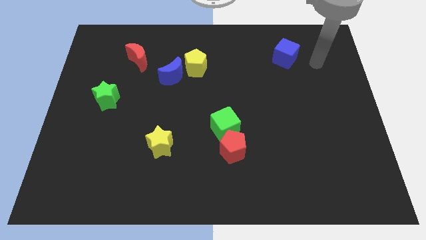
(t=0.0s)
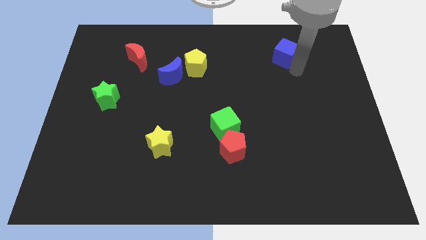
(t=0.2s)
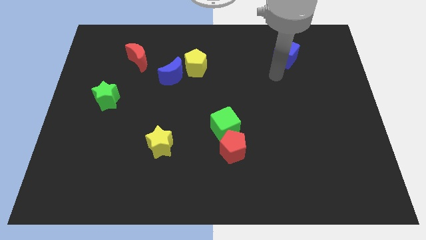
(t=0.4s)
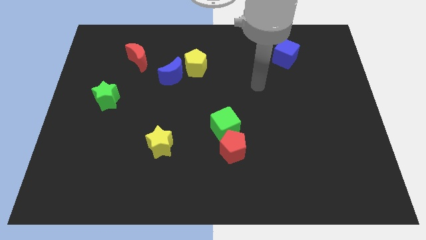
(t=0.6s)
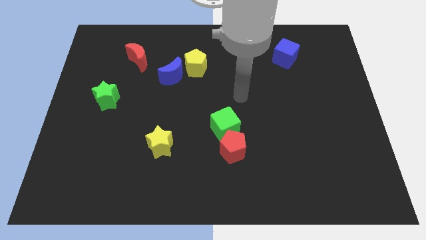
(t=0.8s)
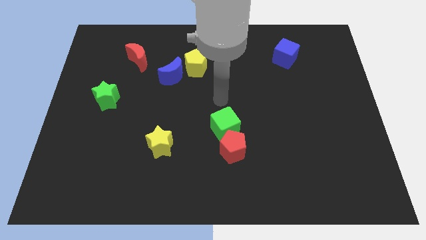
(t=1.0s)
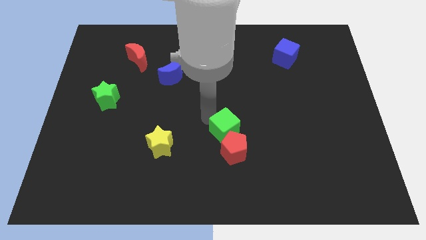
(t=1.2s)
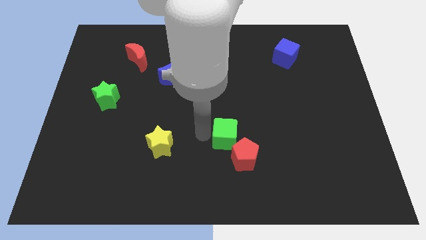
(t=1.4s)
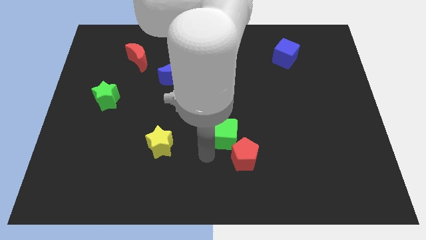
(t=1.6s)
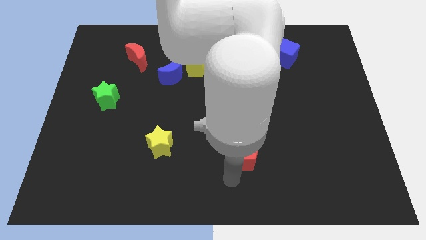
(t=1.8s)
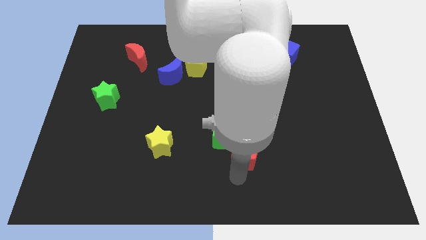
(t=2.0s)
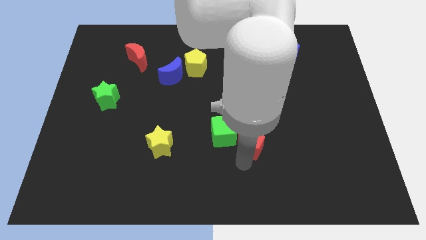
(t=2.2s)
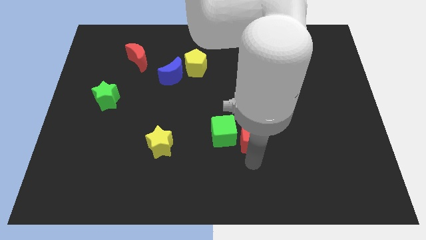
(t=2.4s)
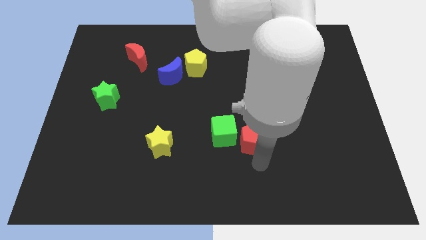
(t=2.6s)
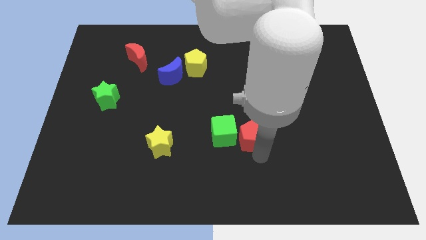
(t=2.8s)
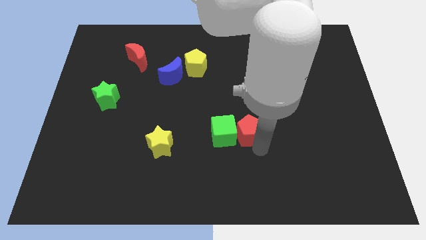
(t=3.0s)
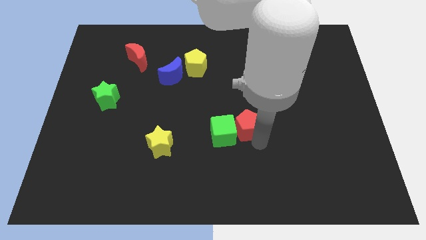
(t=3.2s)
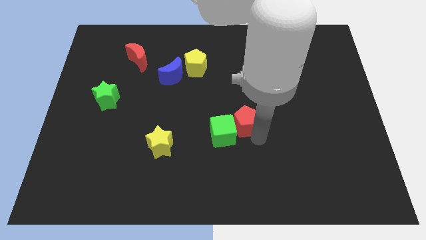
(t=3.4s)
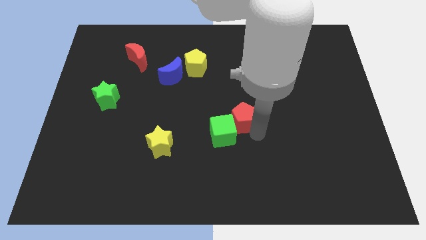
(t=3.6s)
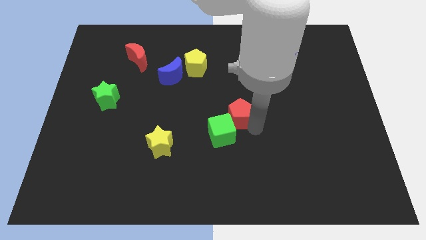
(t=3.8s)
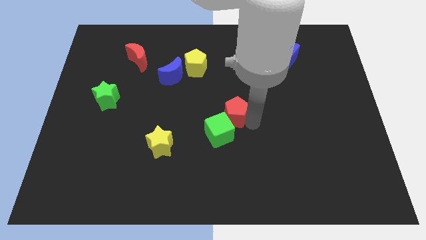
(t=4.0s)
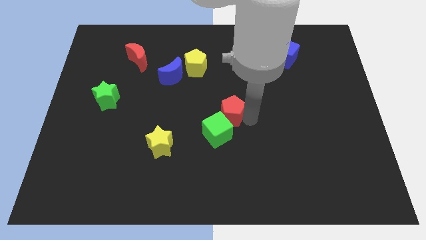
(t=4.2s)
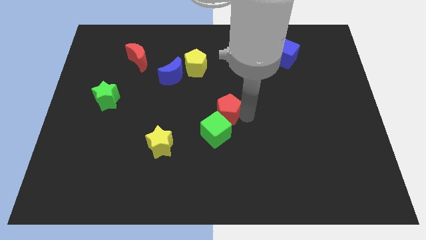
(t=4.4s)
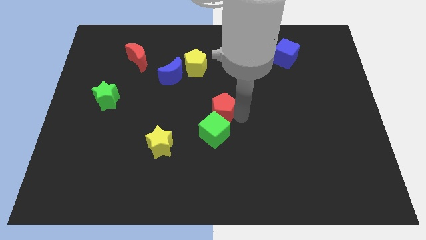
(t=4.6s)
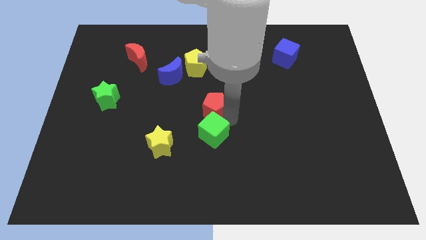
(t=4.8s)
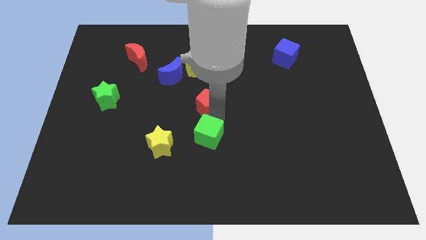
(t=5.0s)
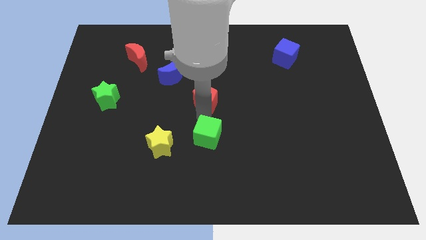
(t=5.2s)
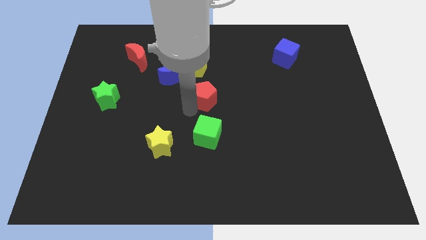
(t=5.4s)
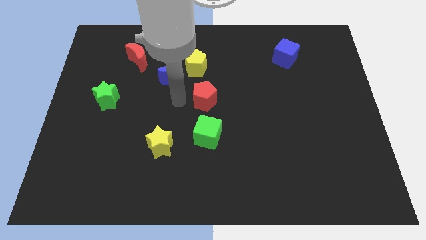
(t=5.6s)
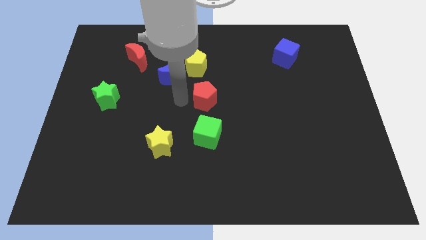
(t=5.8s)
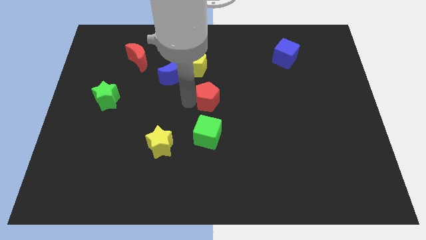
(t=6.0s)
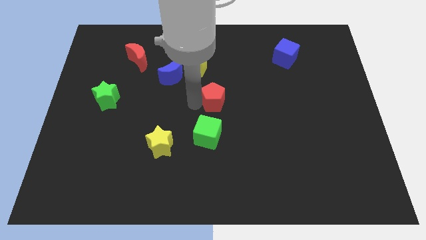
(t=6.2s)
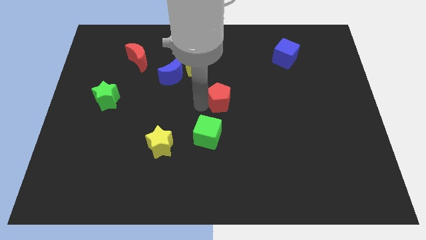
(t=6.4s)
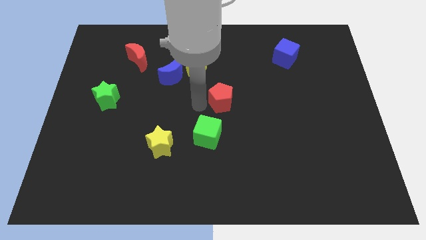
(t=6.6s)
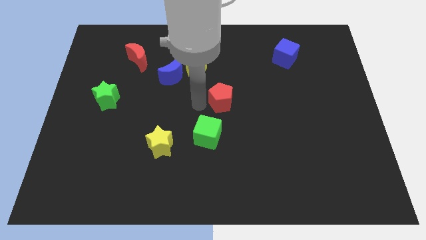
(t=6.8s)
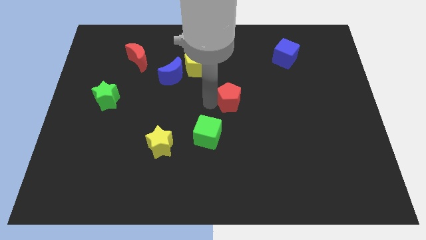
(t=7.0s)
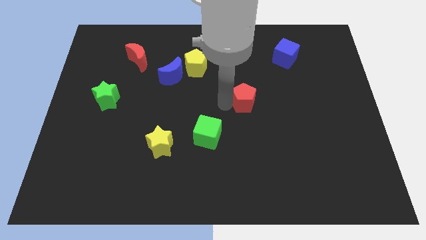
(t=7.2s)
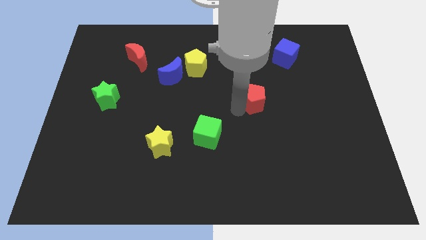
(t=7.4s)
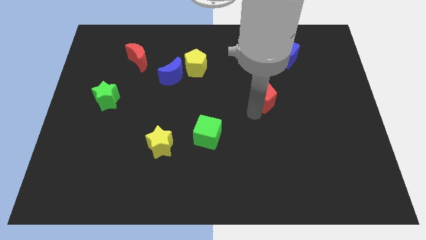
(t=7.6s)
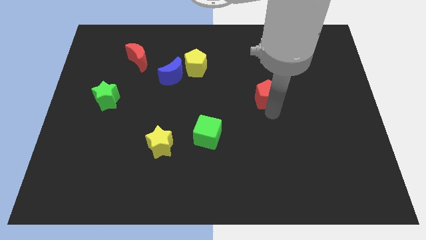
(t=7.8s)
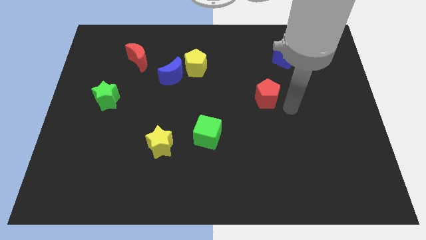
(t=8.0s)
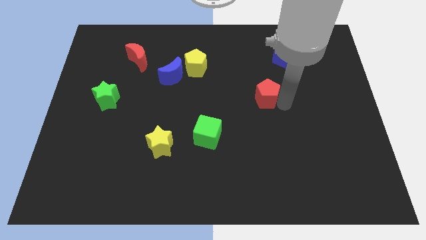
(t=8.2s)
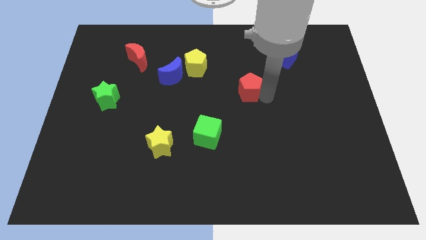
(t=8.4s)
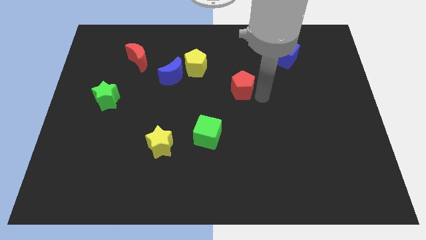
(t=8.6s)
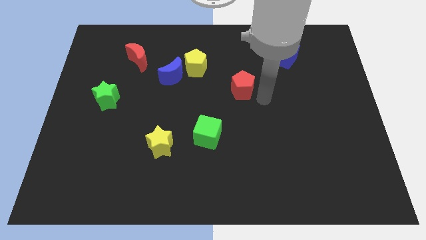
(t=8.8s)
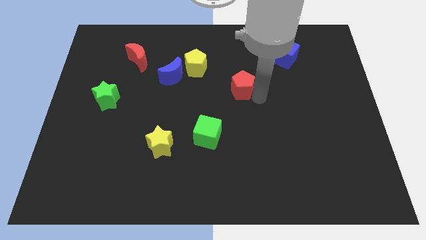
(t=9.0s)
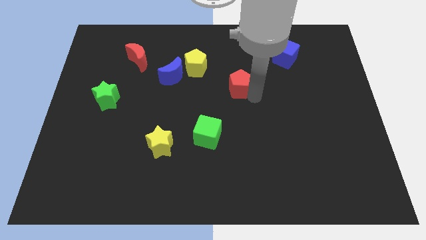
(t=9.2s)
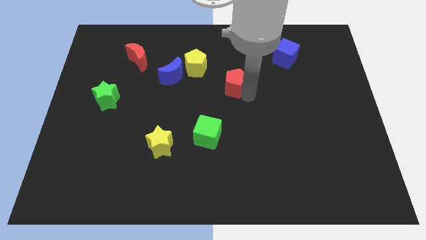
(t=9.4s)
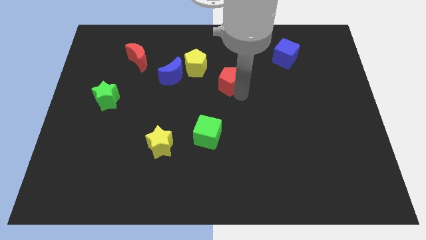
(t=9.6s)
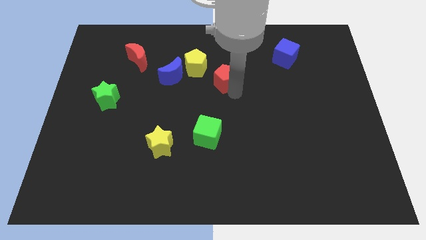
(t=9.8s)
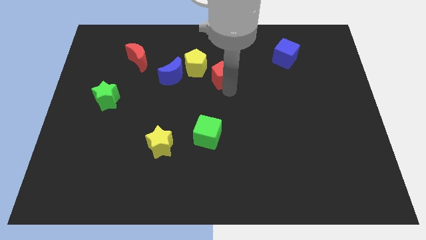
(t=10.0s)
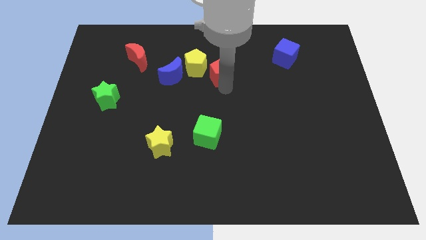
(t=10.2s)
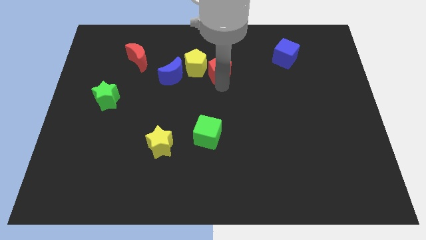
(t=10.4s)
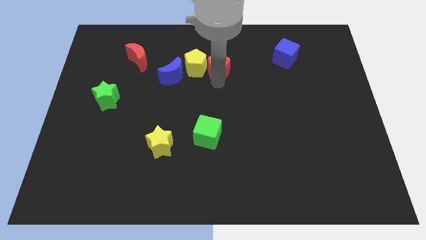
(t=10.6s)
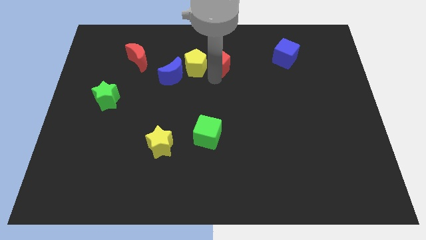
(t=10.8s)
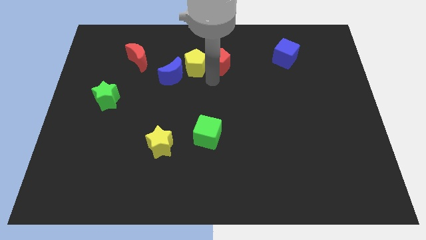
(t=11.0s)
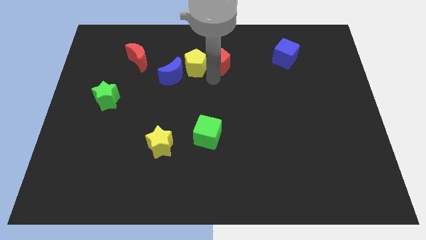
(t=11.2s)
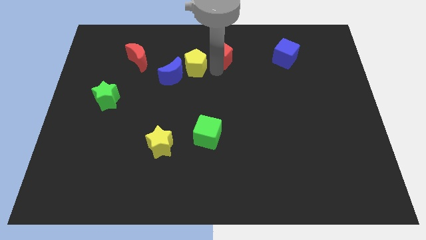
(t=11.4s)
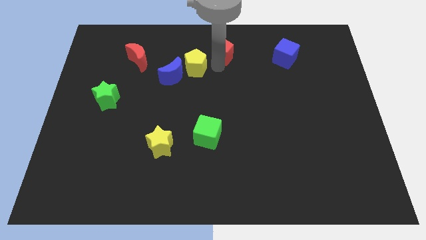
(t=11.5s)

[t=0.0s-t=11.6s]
put the red pentagon to the top

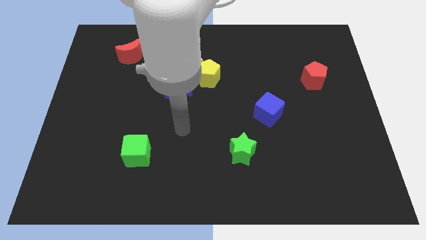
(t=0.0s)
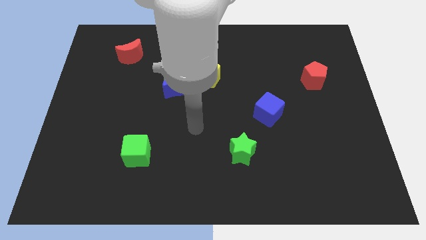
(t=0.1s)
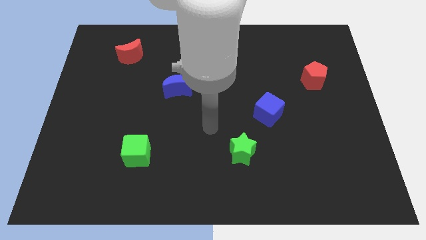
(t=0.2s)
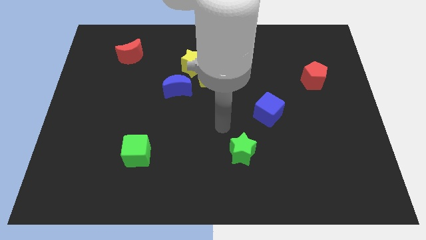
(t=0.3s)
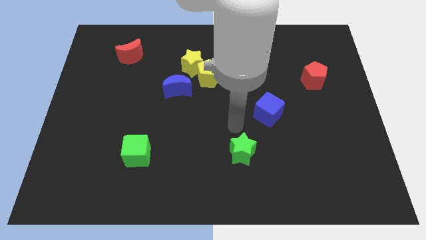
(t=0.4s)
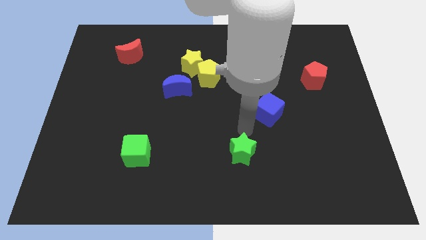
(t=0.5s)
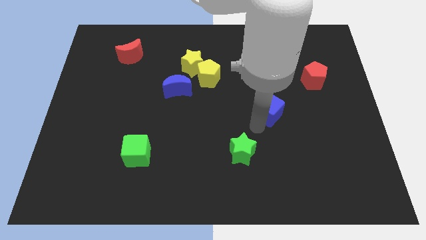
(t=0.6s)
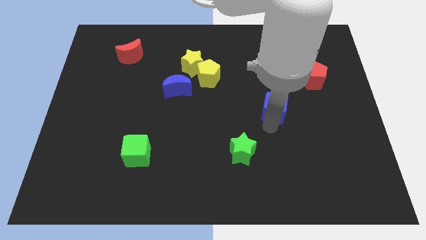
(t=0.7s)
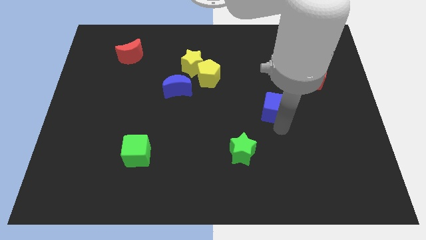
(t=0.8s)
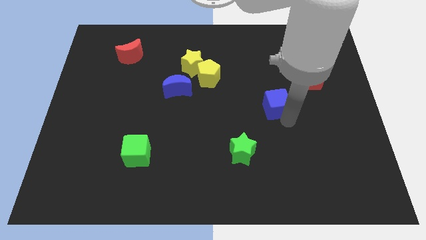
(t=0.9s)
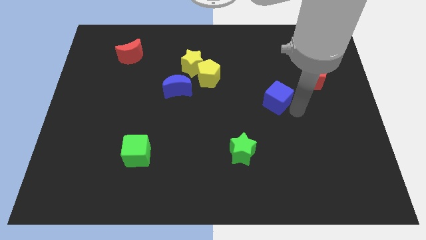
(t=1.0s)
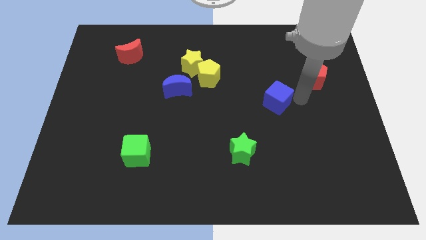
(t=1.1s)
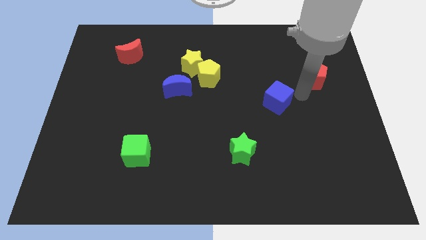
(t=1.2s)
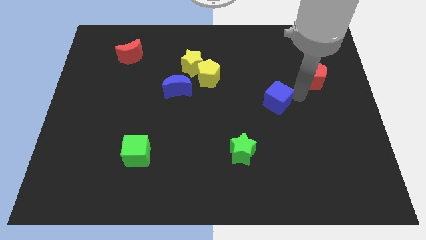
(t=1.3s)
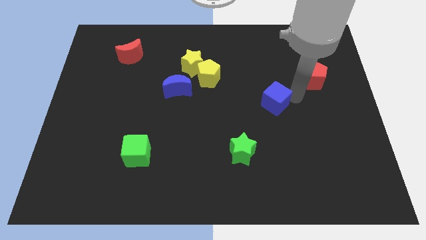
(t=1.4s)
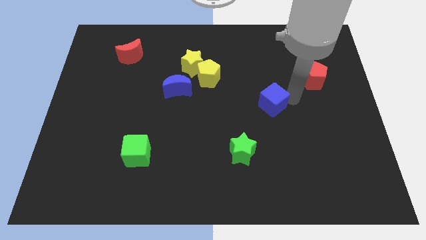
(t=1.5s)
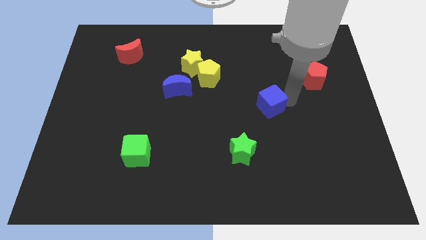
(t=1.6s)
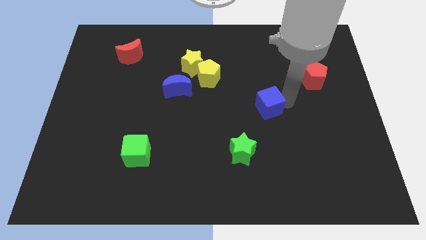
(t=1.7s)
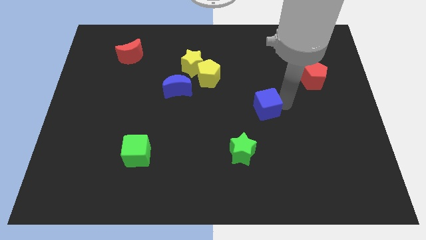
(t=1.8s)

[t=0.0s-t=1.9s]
push the blue cube to the center of the board
